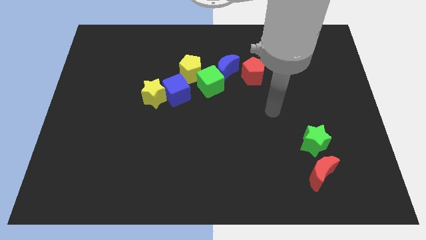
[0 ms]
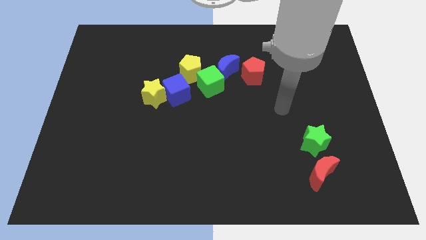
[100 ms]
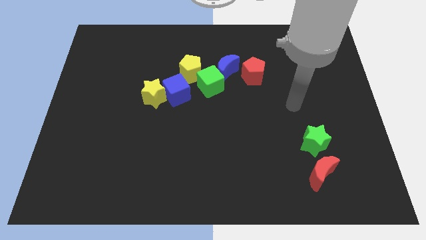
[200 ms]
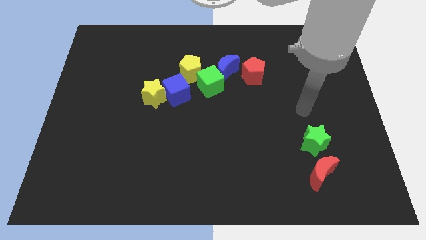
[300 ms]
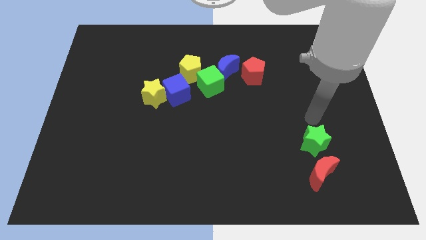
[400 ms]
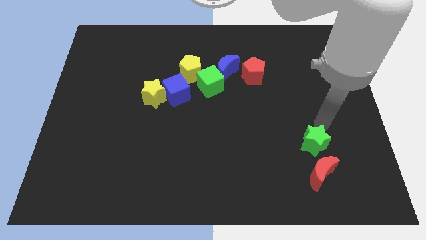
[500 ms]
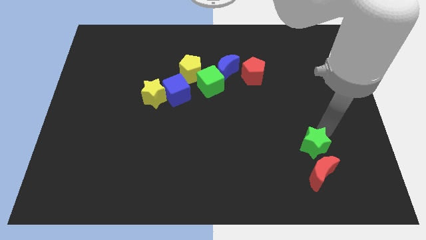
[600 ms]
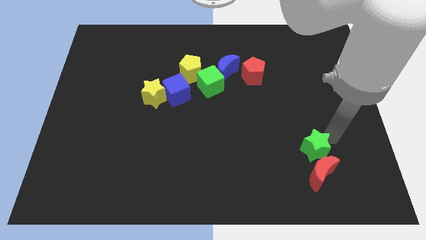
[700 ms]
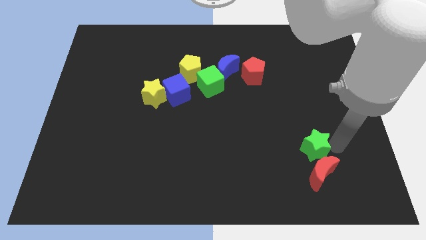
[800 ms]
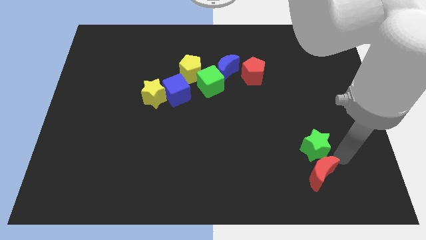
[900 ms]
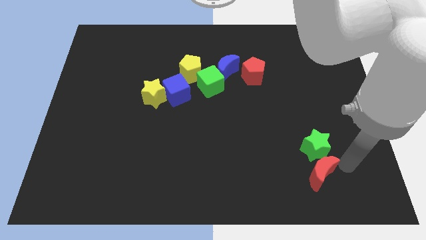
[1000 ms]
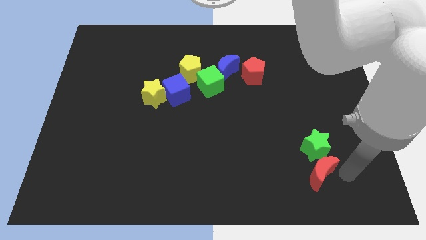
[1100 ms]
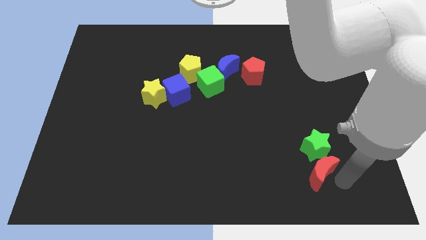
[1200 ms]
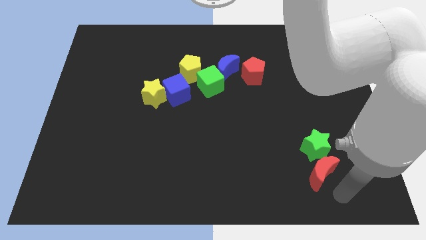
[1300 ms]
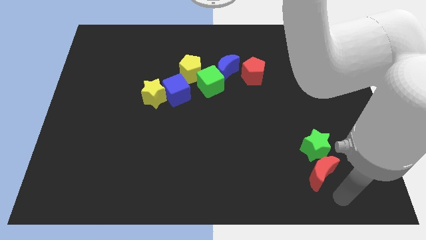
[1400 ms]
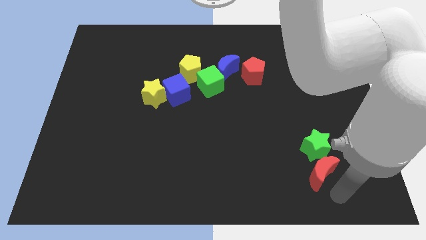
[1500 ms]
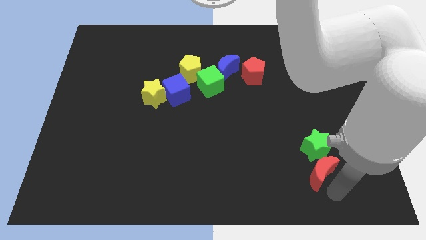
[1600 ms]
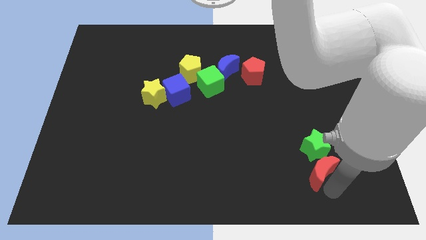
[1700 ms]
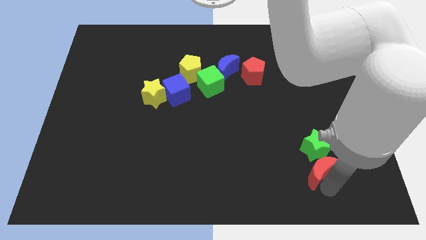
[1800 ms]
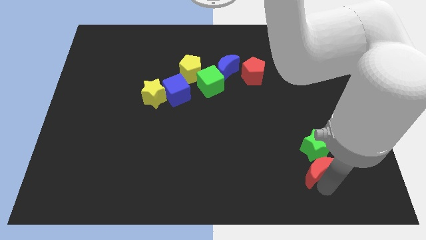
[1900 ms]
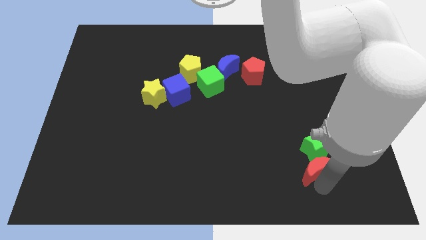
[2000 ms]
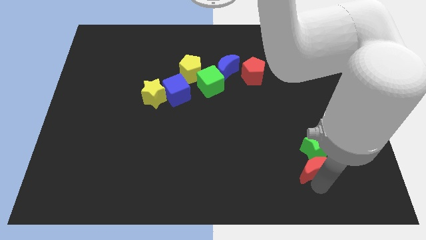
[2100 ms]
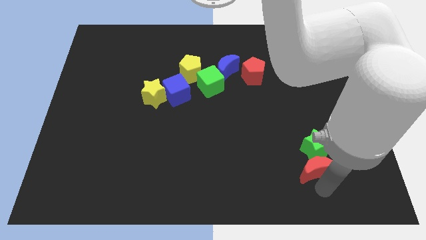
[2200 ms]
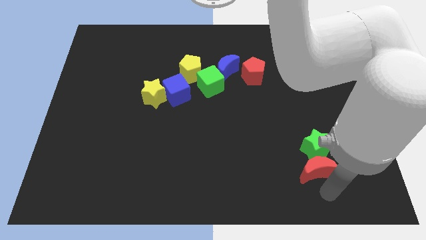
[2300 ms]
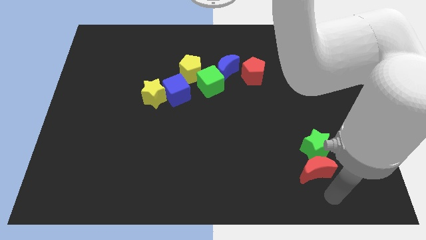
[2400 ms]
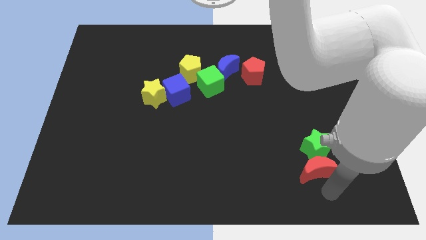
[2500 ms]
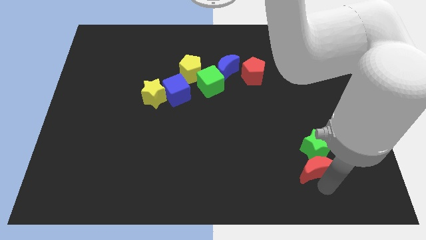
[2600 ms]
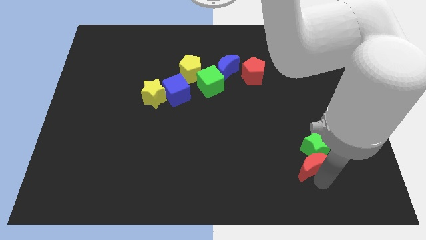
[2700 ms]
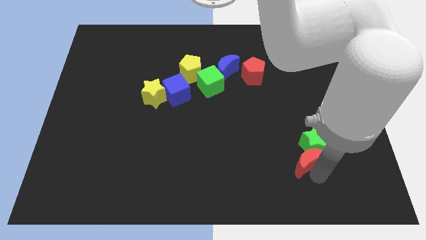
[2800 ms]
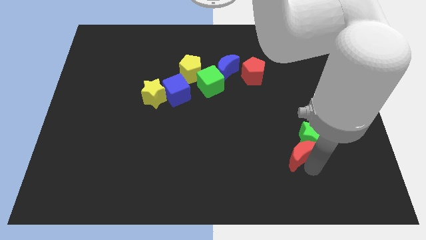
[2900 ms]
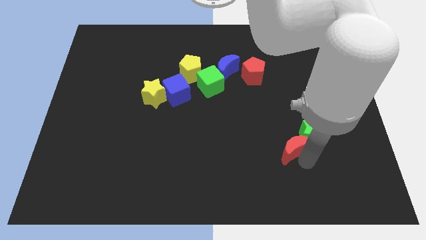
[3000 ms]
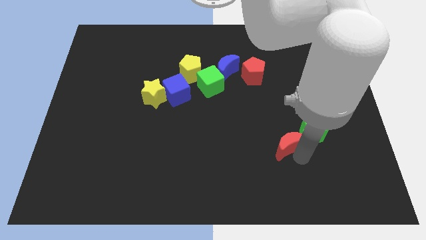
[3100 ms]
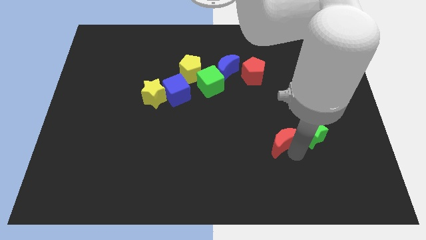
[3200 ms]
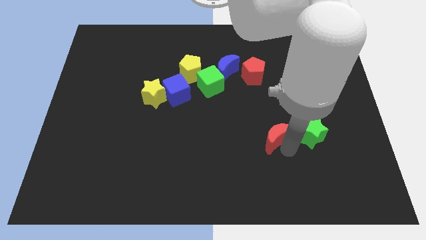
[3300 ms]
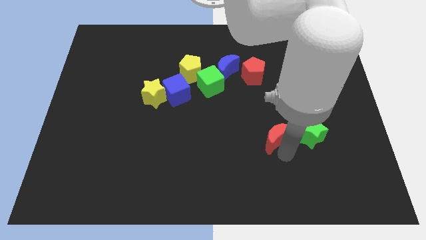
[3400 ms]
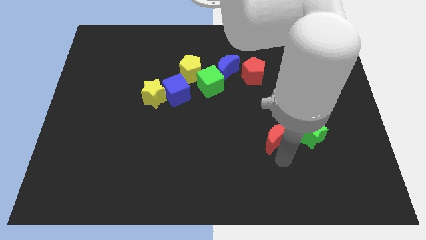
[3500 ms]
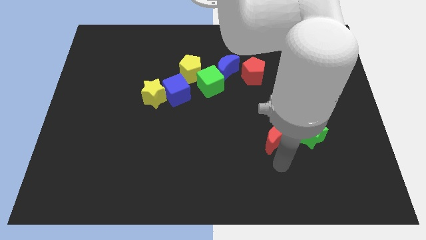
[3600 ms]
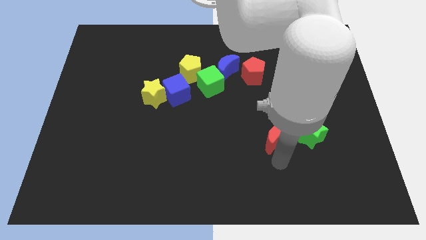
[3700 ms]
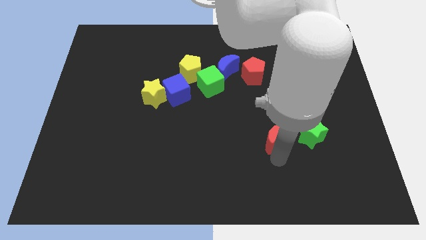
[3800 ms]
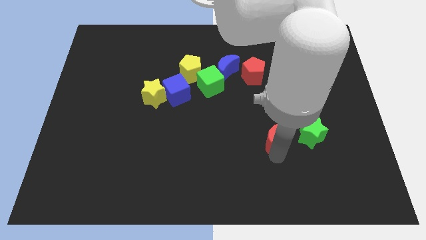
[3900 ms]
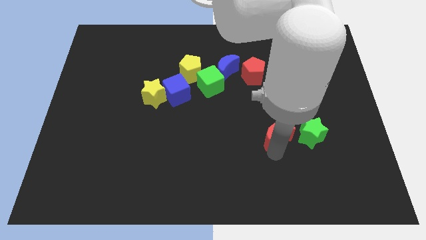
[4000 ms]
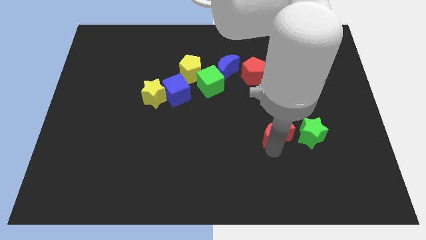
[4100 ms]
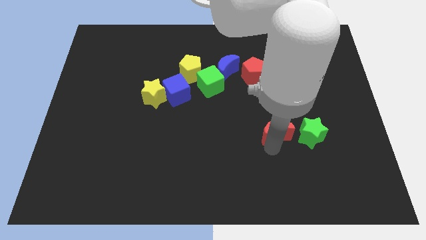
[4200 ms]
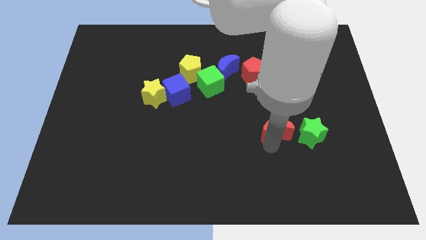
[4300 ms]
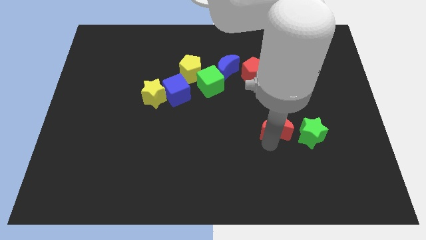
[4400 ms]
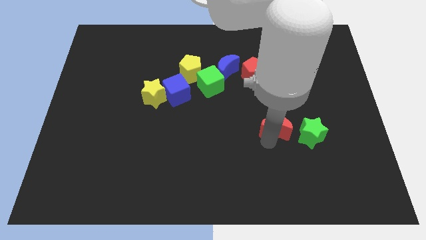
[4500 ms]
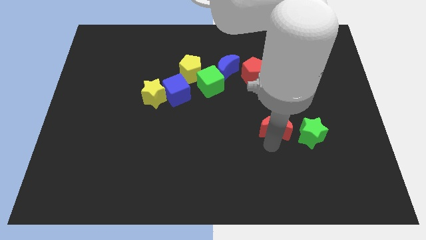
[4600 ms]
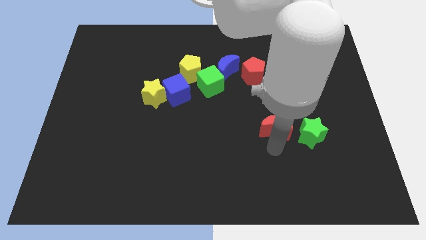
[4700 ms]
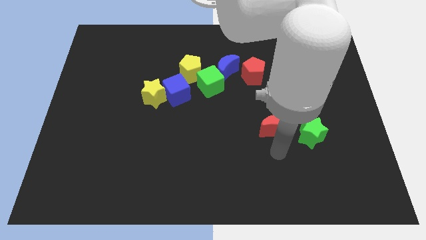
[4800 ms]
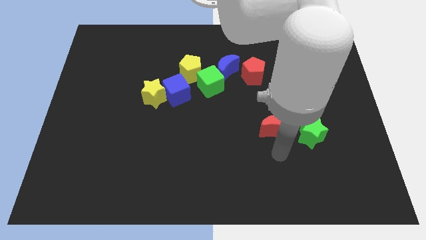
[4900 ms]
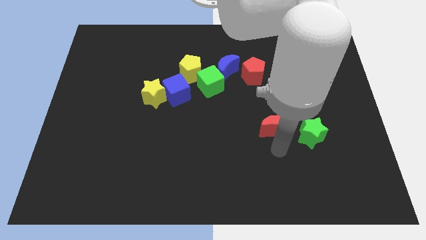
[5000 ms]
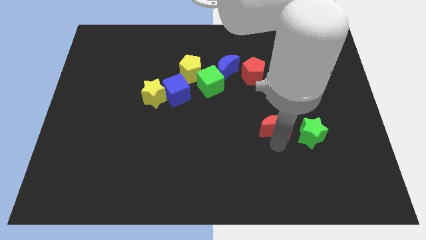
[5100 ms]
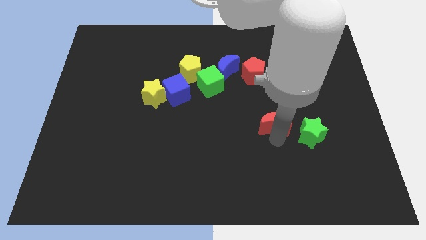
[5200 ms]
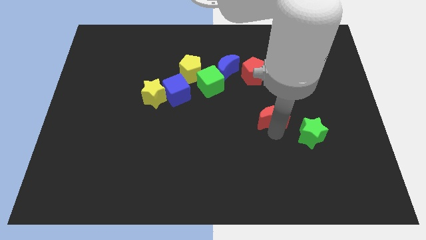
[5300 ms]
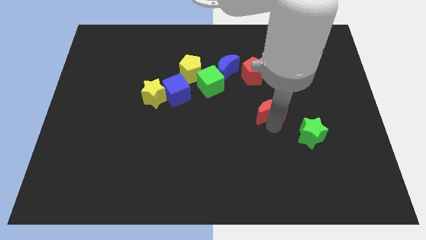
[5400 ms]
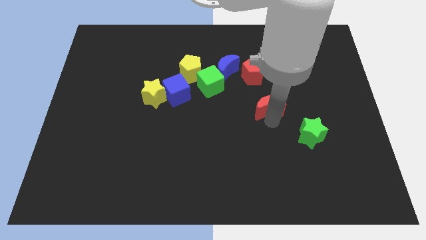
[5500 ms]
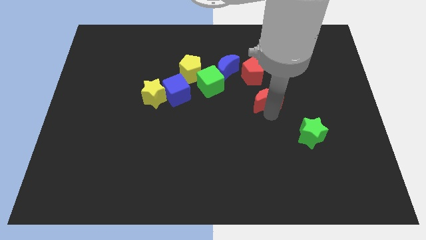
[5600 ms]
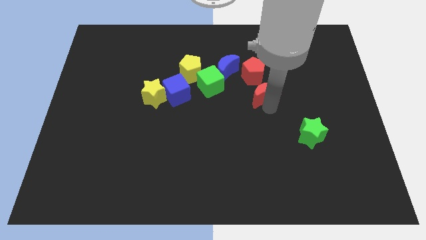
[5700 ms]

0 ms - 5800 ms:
put the red moon to the right side of the green cube

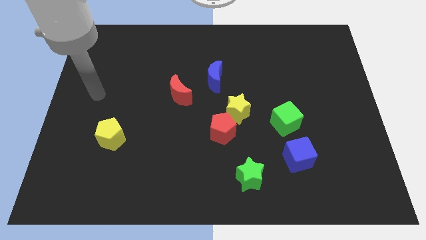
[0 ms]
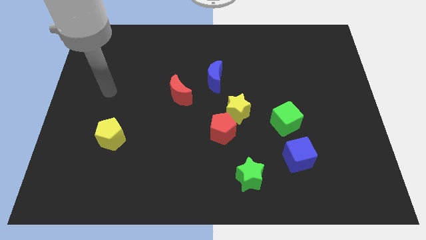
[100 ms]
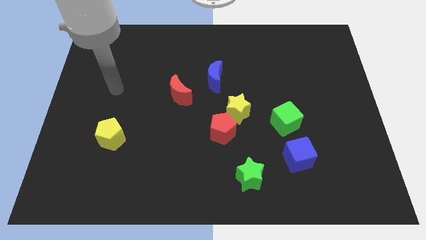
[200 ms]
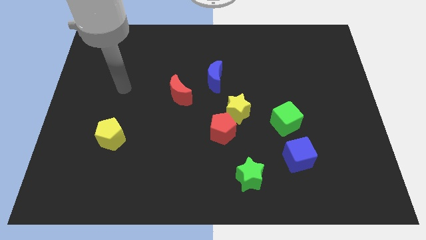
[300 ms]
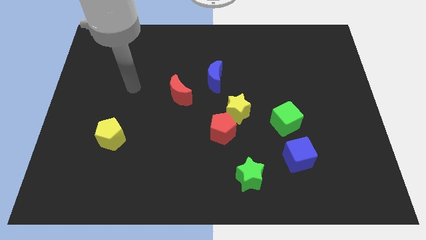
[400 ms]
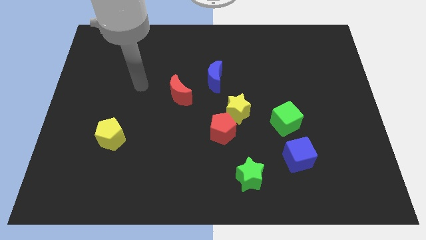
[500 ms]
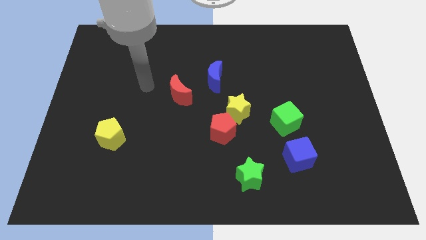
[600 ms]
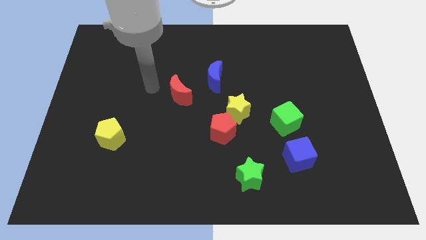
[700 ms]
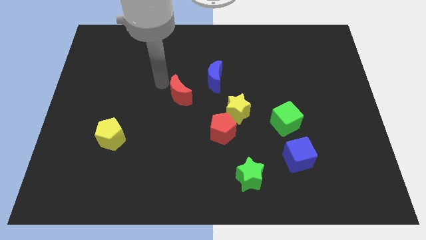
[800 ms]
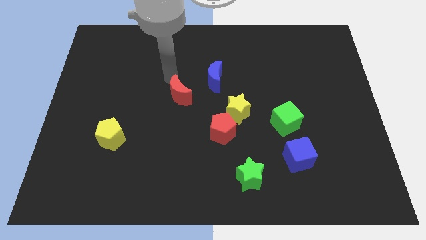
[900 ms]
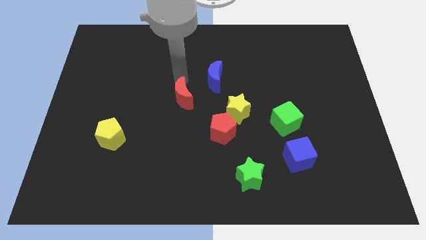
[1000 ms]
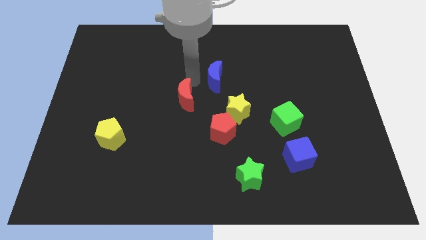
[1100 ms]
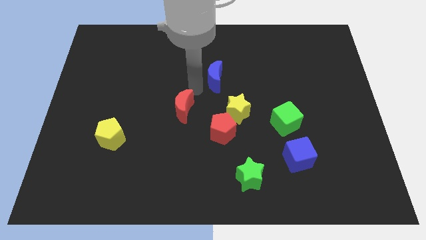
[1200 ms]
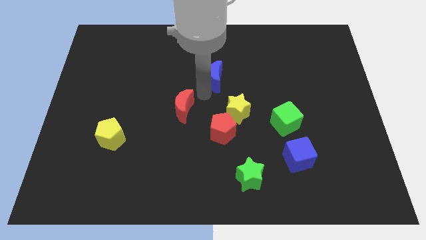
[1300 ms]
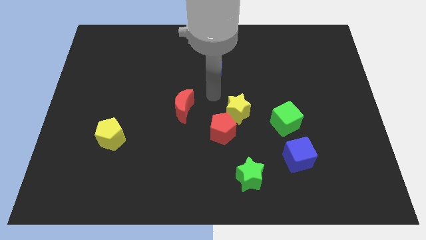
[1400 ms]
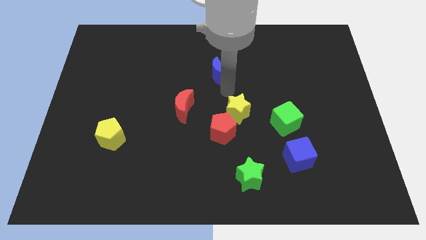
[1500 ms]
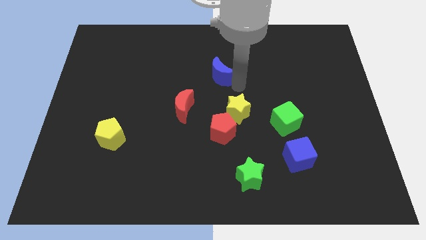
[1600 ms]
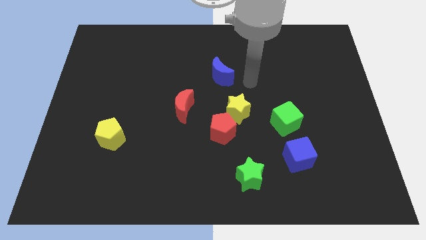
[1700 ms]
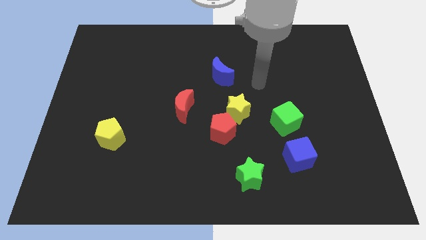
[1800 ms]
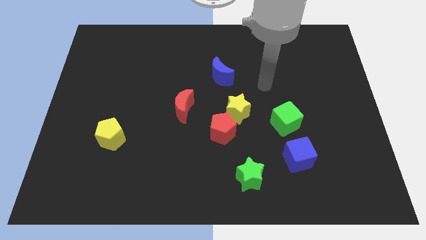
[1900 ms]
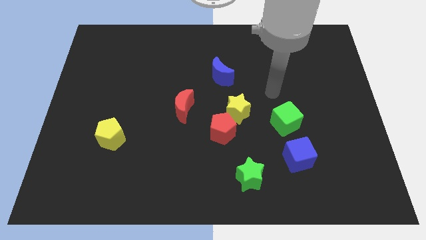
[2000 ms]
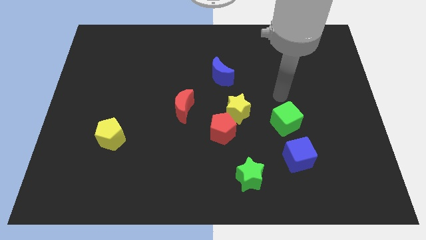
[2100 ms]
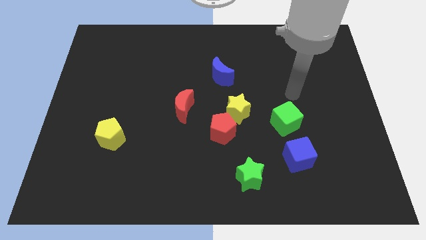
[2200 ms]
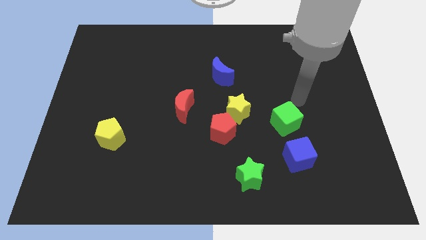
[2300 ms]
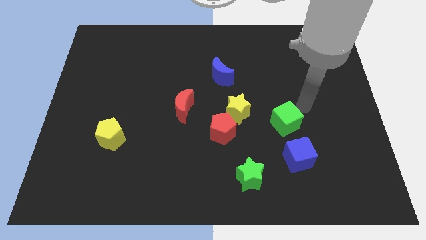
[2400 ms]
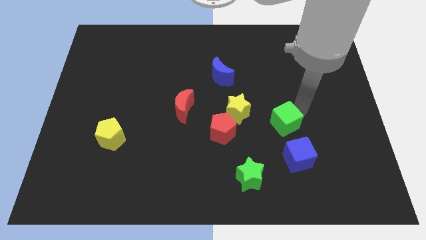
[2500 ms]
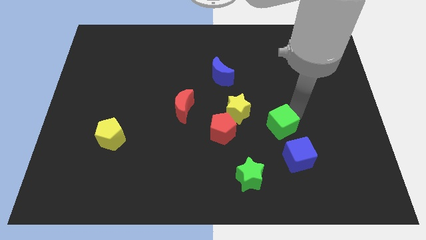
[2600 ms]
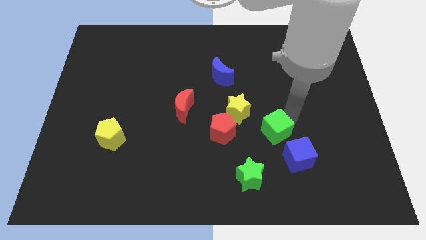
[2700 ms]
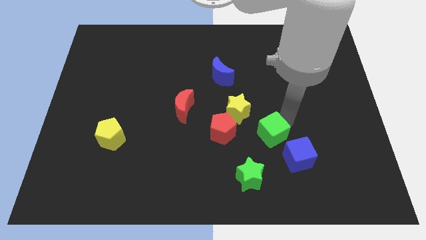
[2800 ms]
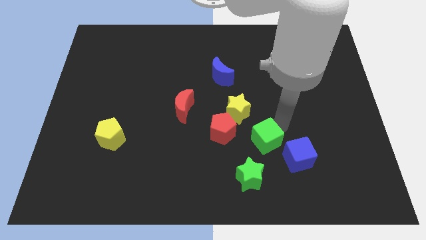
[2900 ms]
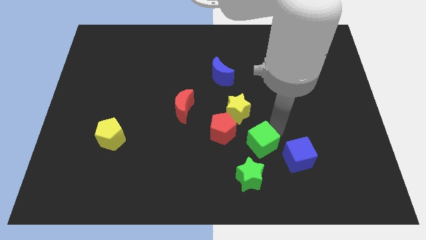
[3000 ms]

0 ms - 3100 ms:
move the green cube to the bottom right of the red pentagon
